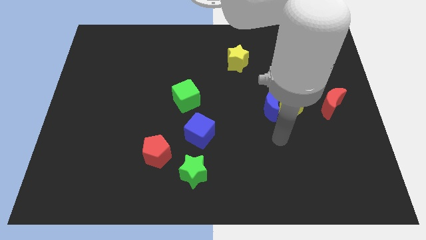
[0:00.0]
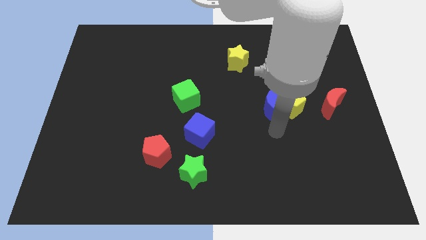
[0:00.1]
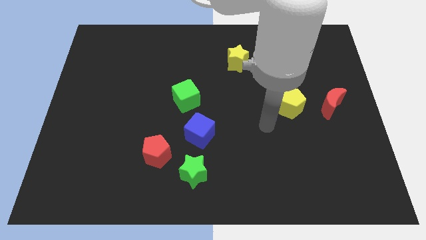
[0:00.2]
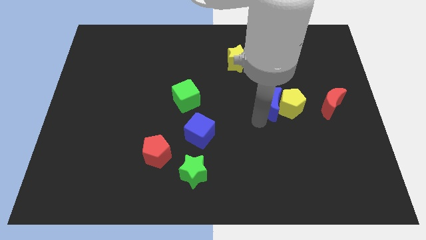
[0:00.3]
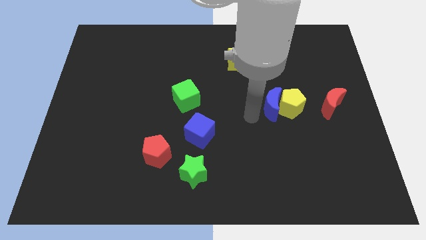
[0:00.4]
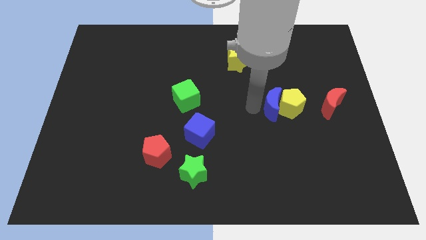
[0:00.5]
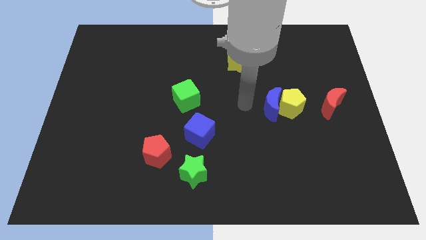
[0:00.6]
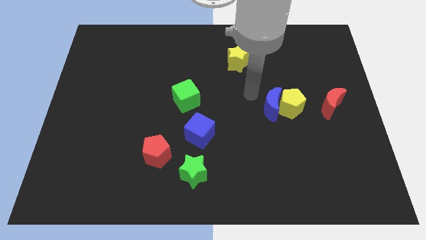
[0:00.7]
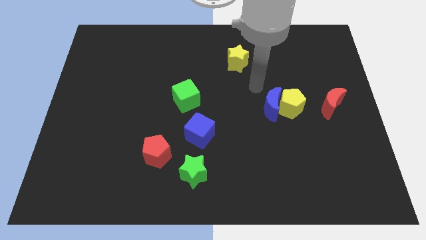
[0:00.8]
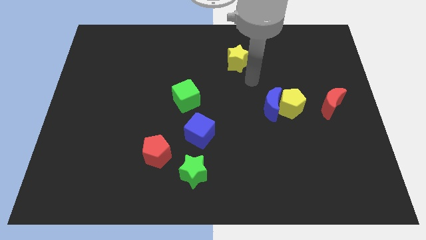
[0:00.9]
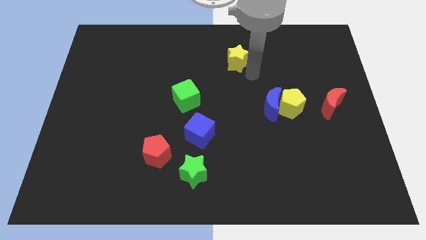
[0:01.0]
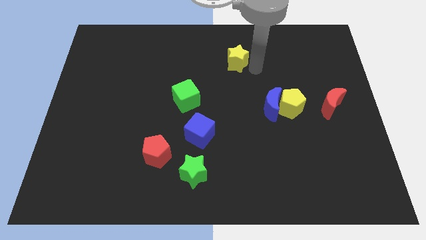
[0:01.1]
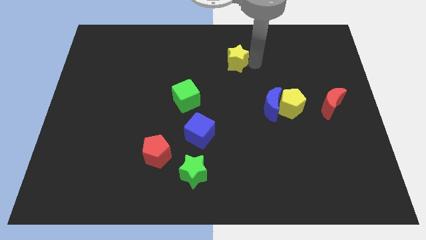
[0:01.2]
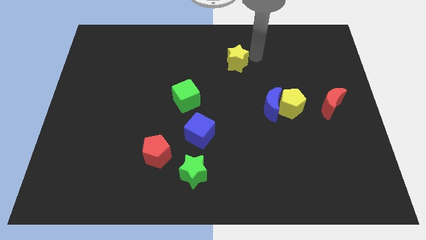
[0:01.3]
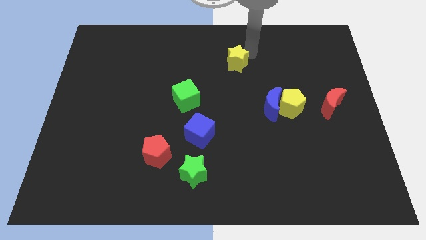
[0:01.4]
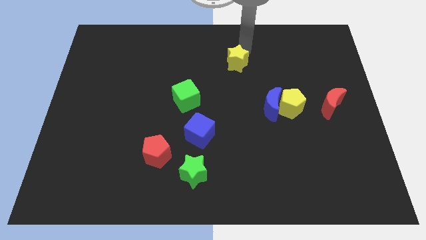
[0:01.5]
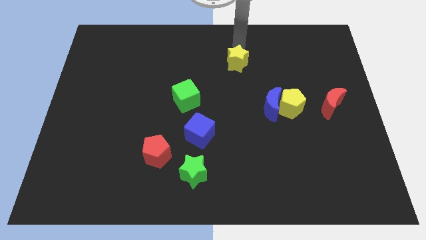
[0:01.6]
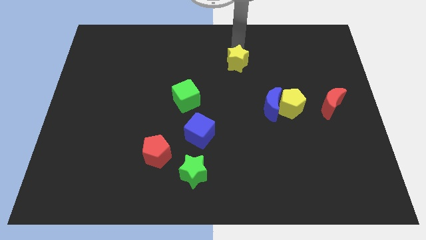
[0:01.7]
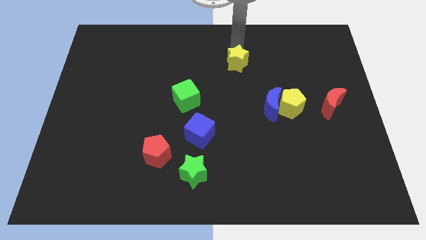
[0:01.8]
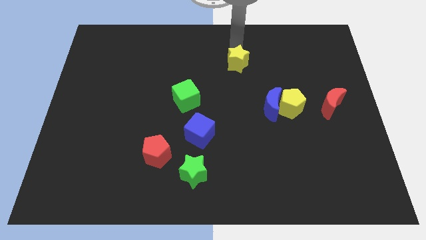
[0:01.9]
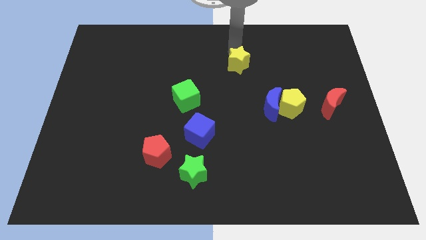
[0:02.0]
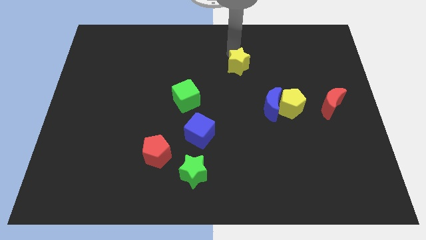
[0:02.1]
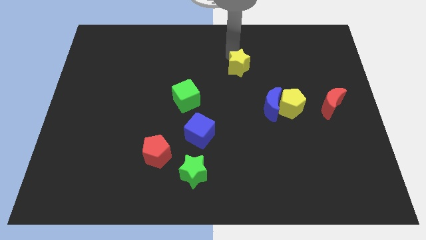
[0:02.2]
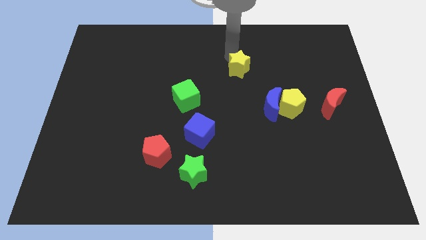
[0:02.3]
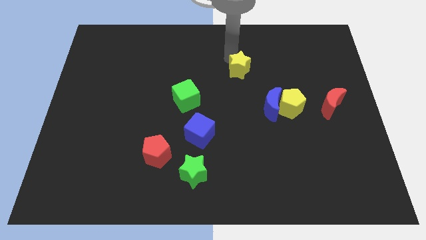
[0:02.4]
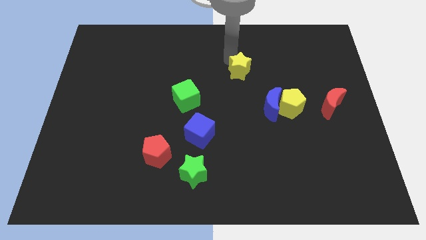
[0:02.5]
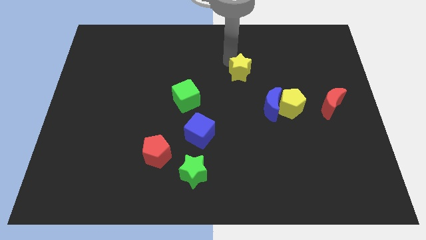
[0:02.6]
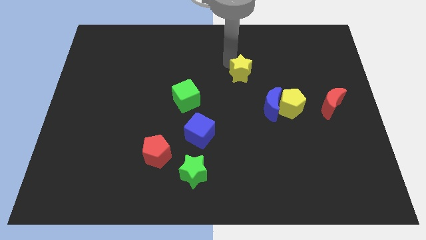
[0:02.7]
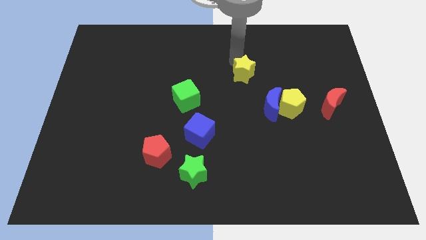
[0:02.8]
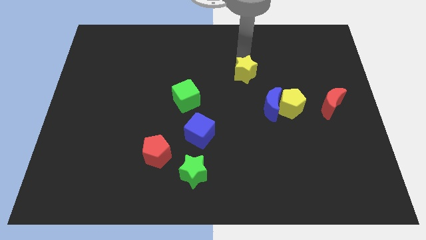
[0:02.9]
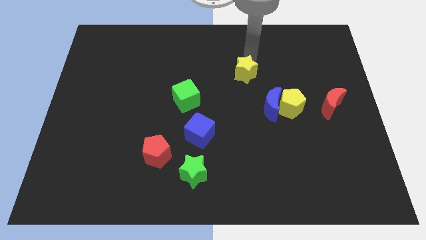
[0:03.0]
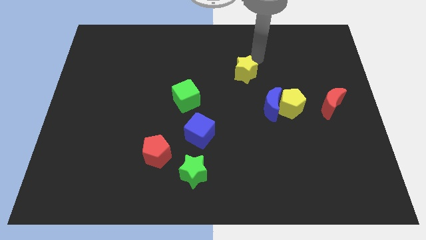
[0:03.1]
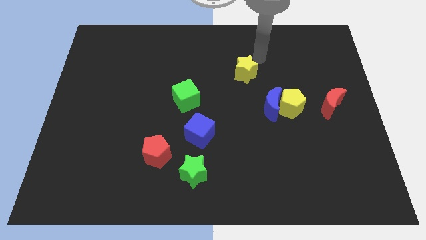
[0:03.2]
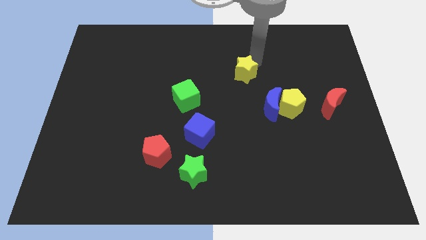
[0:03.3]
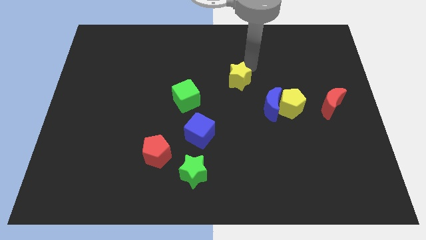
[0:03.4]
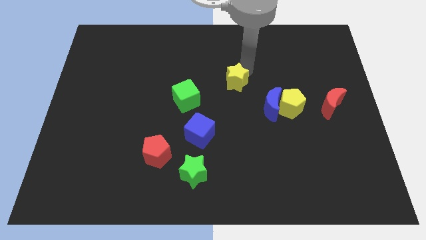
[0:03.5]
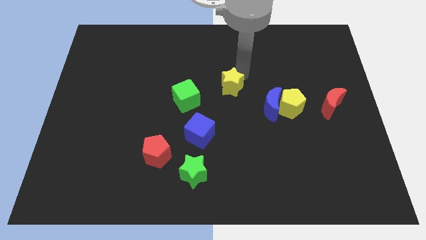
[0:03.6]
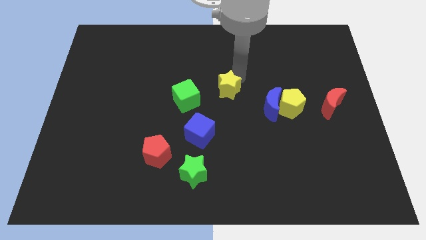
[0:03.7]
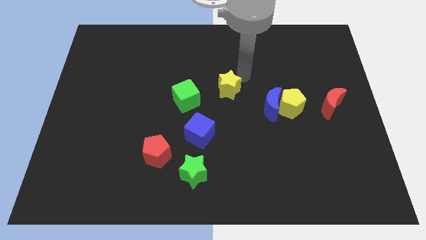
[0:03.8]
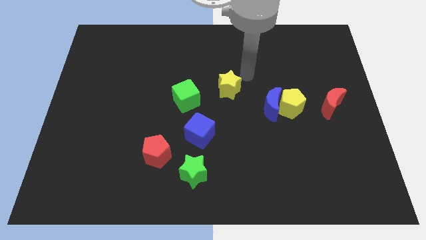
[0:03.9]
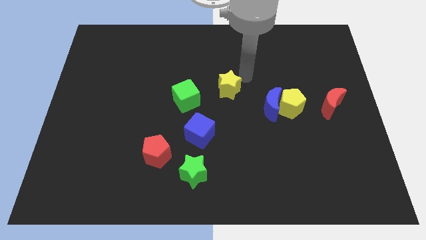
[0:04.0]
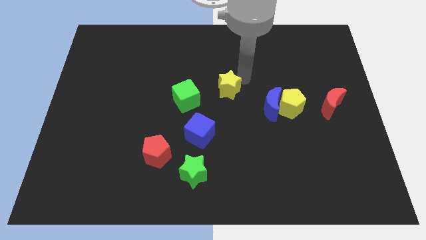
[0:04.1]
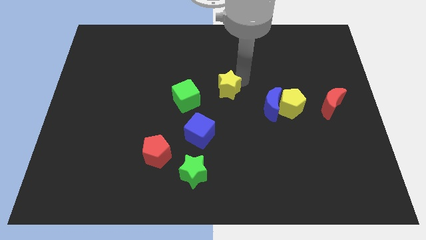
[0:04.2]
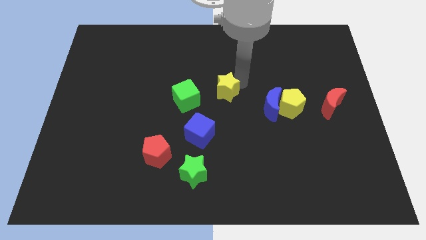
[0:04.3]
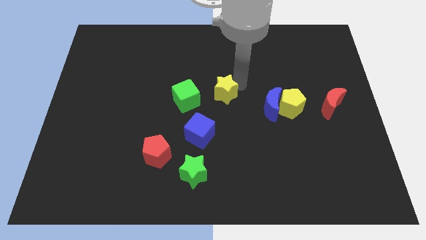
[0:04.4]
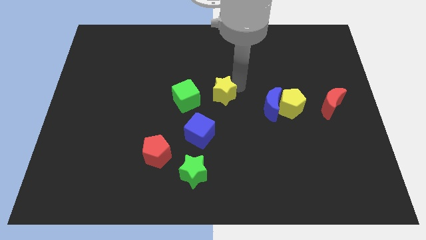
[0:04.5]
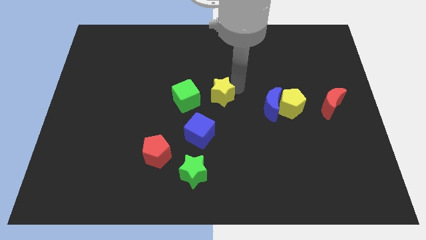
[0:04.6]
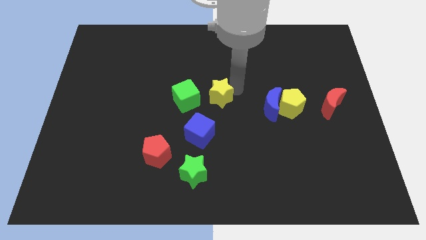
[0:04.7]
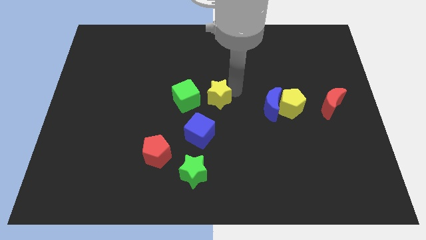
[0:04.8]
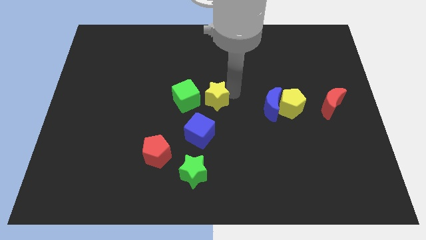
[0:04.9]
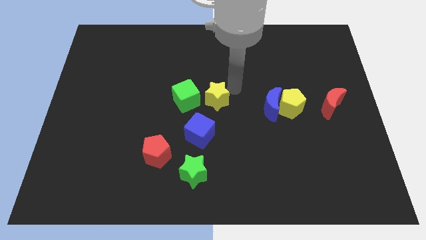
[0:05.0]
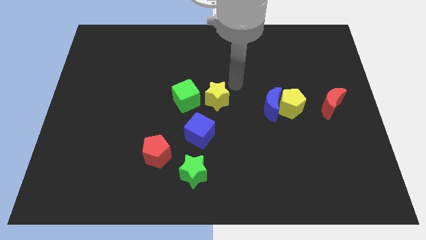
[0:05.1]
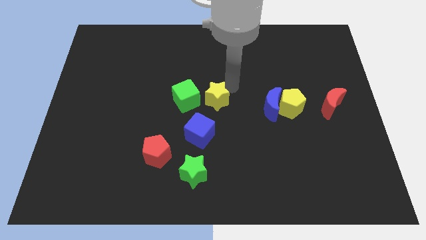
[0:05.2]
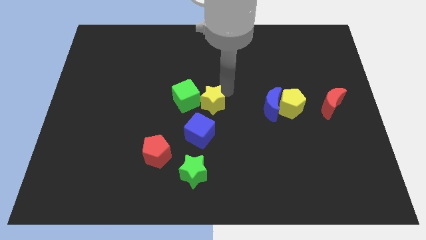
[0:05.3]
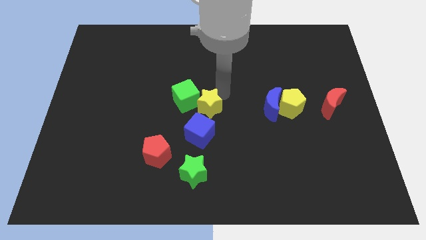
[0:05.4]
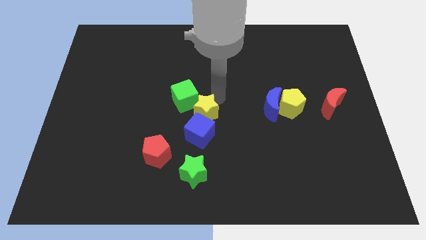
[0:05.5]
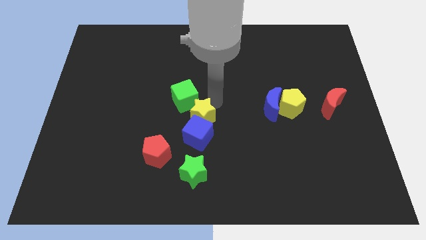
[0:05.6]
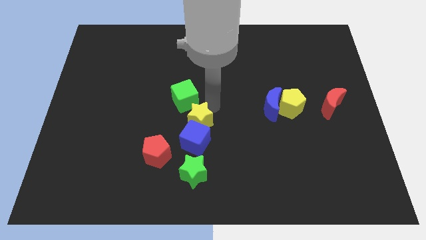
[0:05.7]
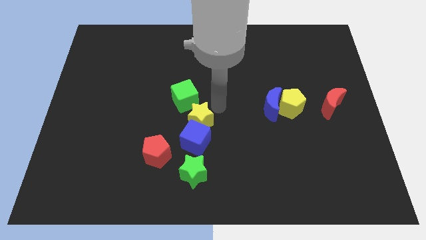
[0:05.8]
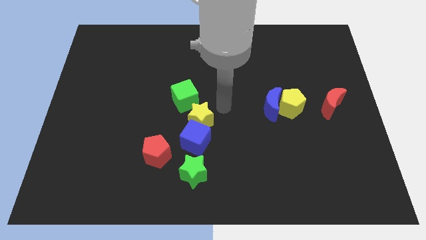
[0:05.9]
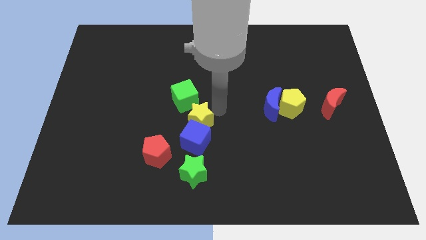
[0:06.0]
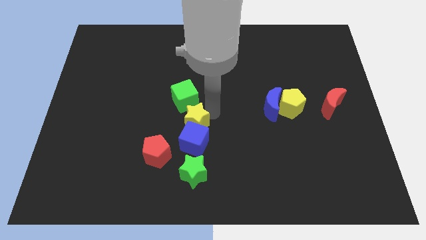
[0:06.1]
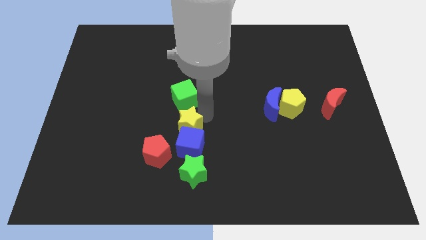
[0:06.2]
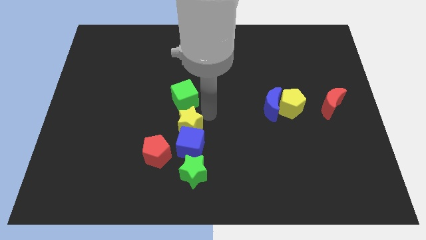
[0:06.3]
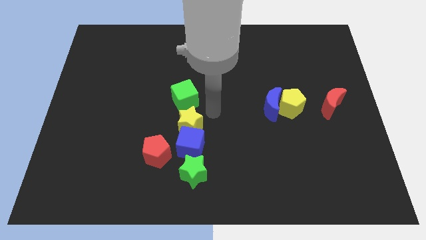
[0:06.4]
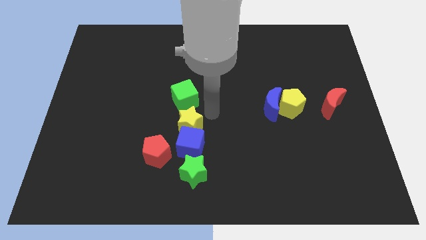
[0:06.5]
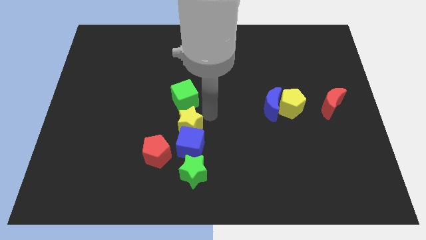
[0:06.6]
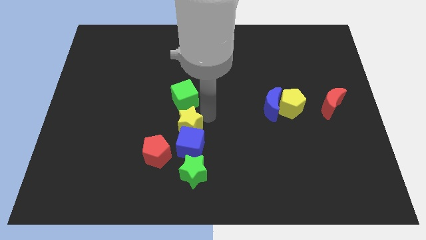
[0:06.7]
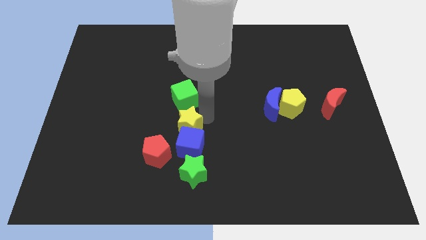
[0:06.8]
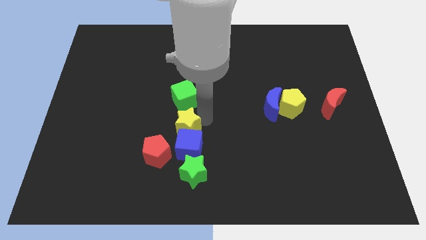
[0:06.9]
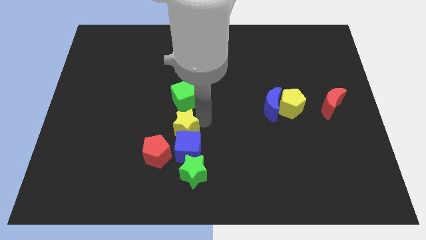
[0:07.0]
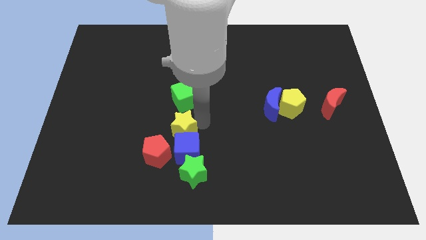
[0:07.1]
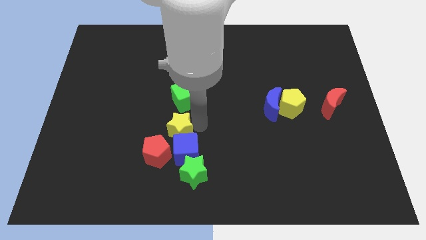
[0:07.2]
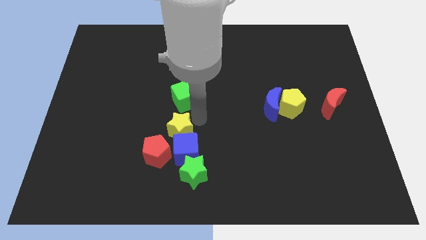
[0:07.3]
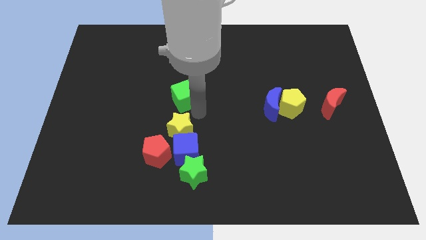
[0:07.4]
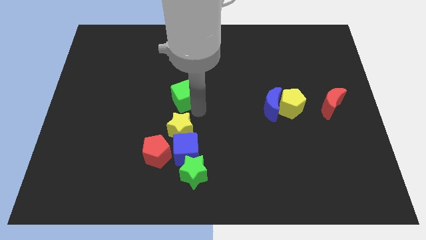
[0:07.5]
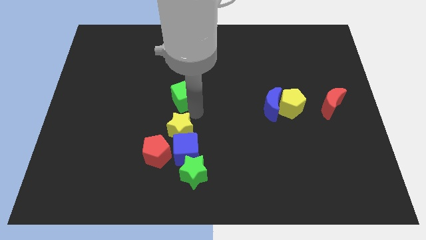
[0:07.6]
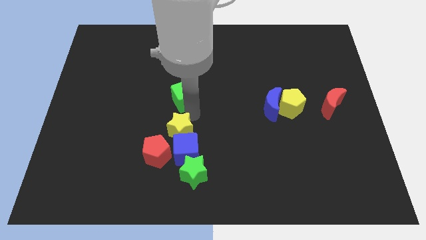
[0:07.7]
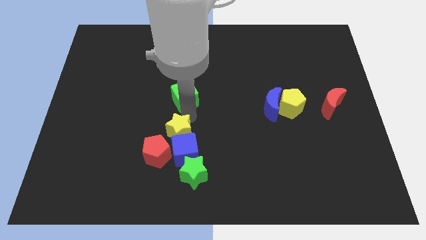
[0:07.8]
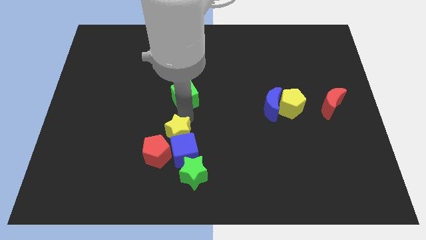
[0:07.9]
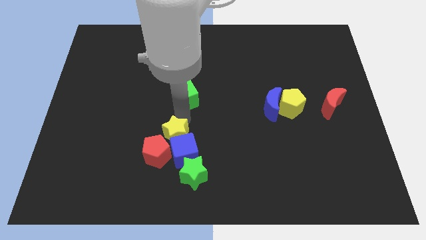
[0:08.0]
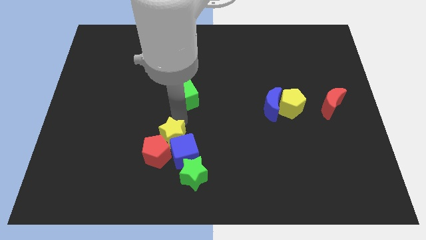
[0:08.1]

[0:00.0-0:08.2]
slide the yellow star to the red pentagon
